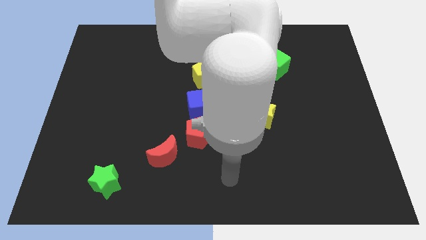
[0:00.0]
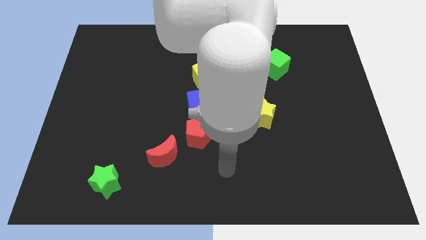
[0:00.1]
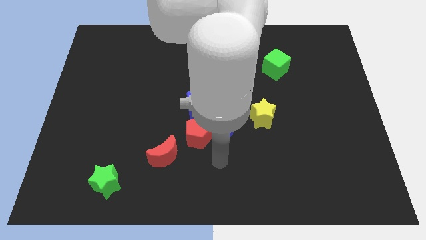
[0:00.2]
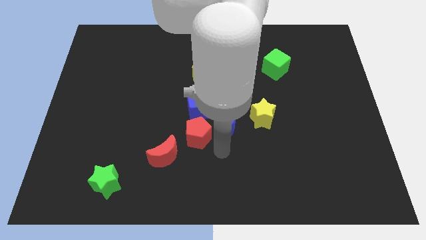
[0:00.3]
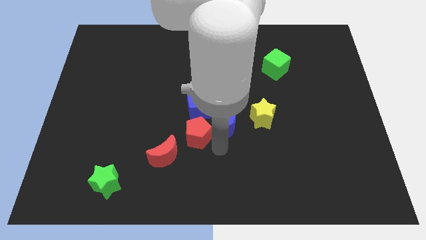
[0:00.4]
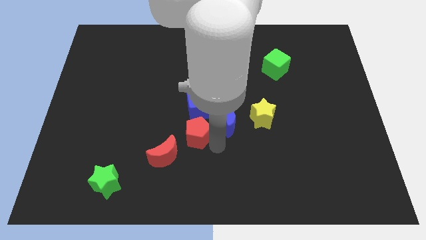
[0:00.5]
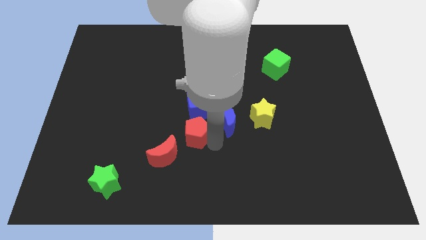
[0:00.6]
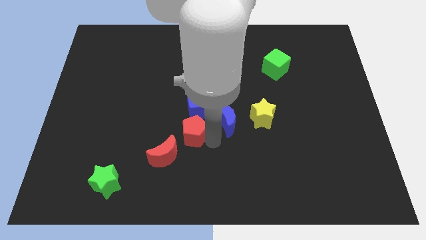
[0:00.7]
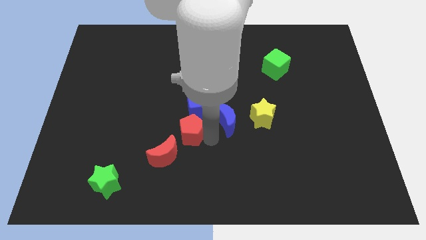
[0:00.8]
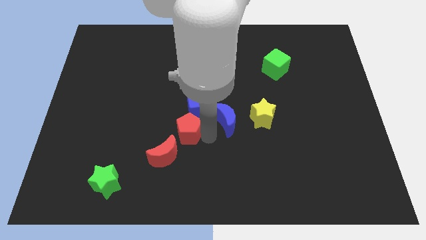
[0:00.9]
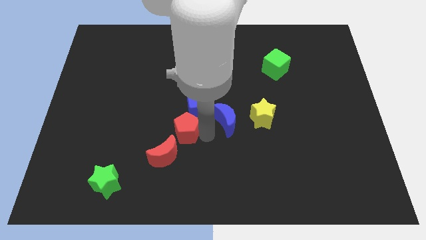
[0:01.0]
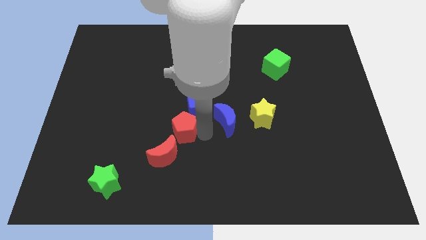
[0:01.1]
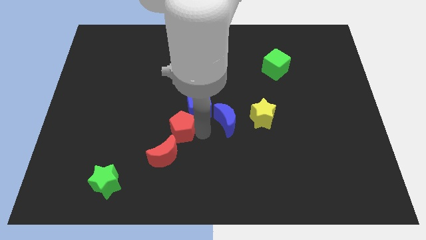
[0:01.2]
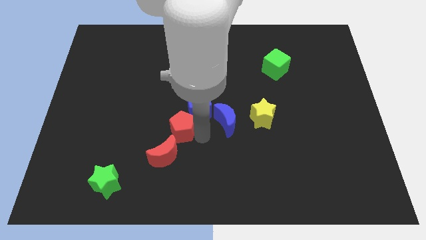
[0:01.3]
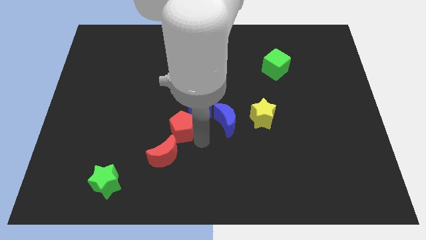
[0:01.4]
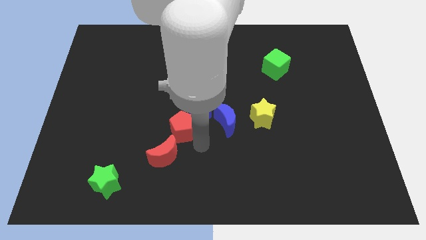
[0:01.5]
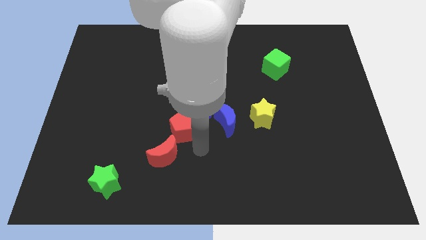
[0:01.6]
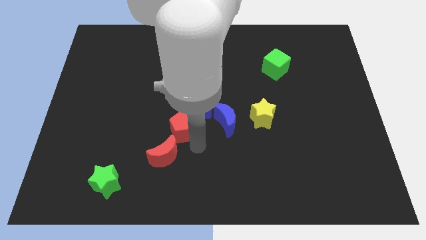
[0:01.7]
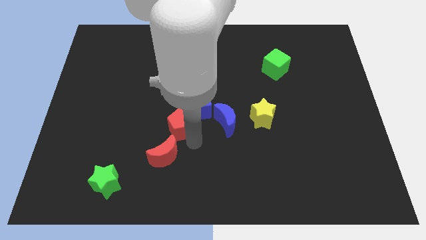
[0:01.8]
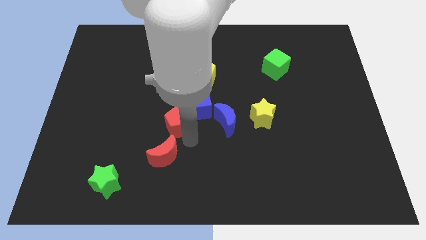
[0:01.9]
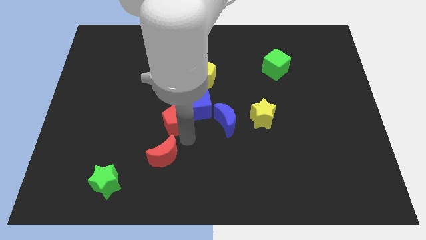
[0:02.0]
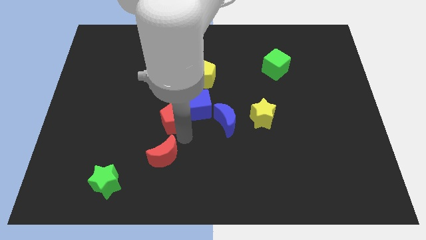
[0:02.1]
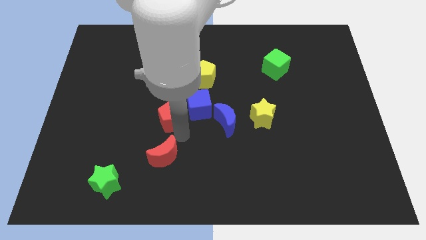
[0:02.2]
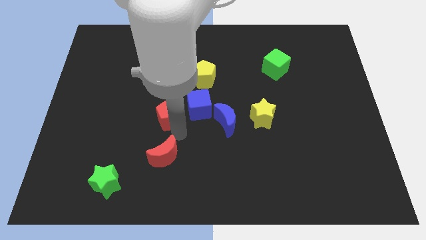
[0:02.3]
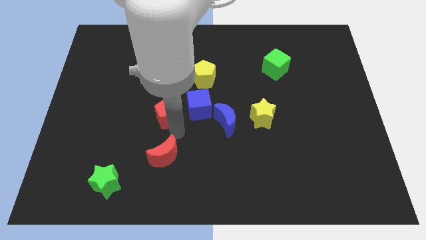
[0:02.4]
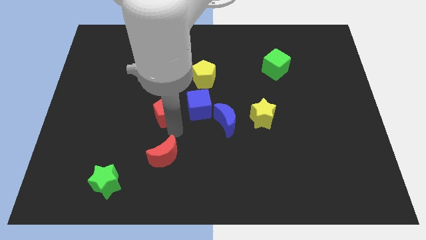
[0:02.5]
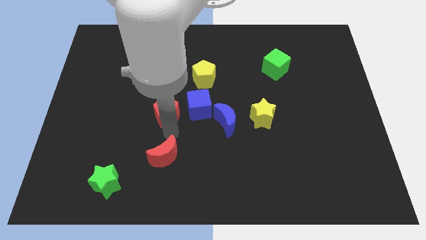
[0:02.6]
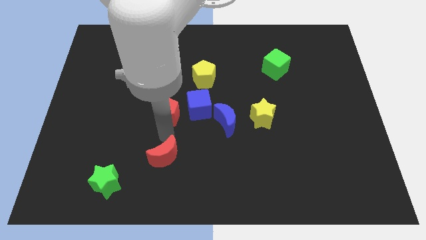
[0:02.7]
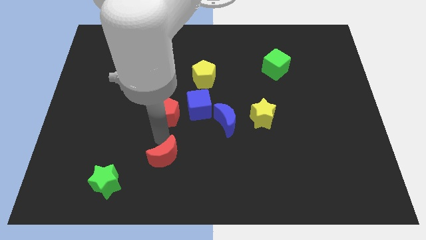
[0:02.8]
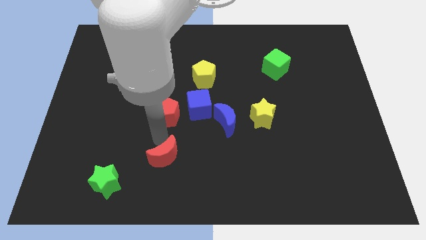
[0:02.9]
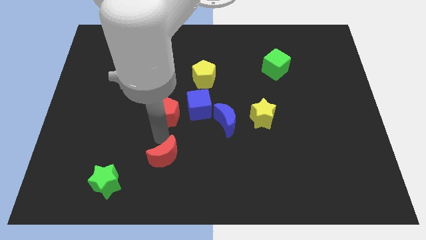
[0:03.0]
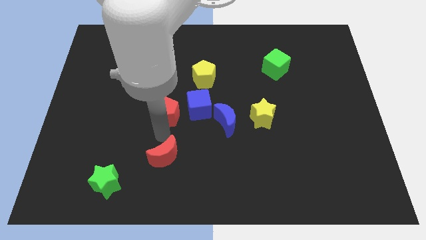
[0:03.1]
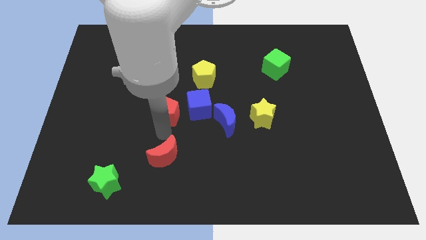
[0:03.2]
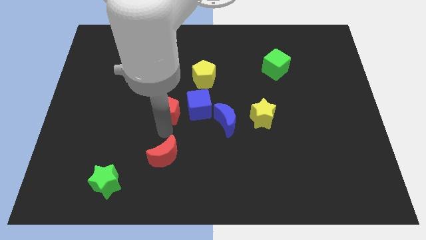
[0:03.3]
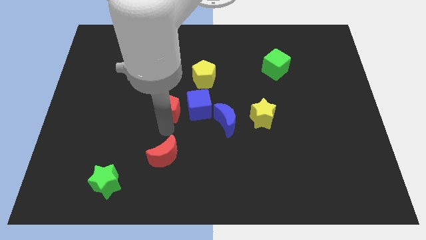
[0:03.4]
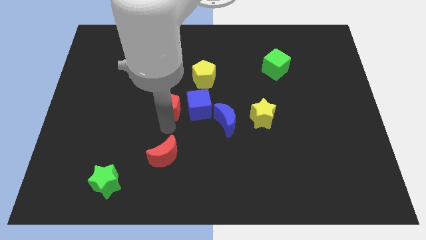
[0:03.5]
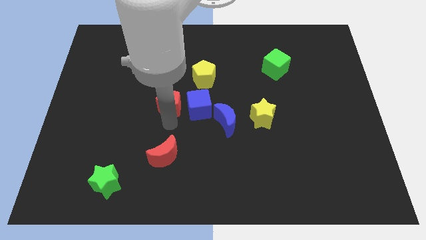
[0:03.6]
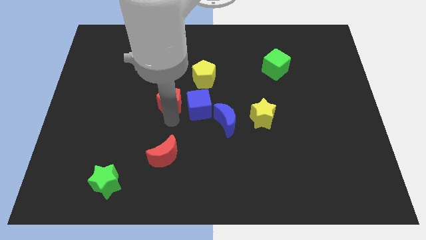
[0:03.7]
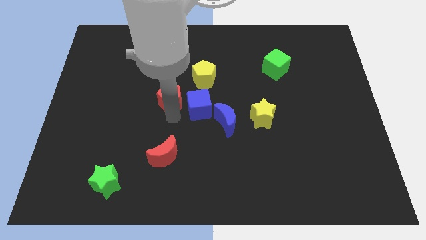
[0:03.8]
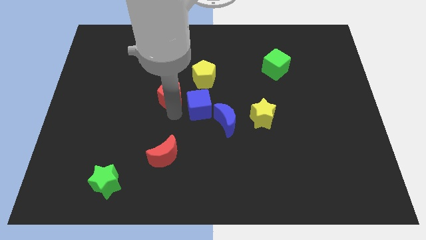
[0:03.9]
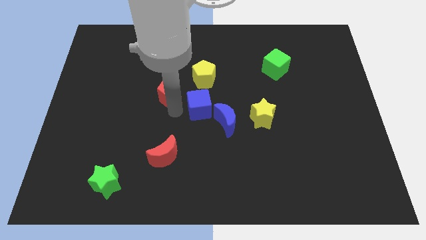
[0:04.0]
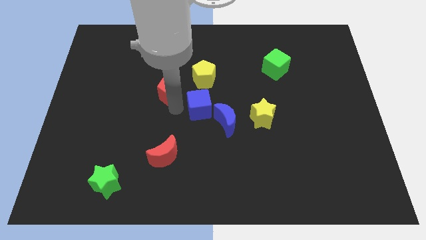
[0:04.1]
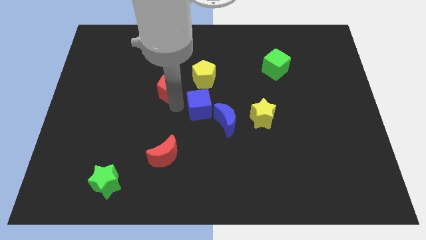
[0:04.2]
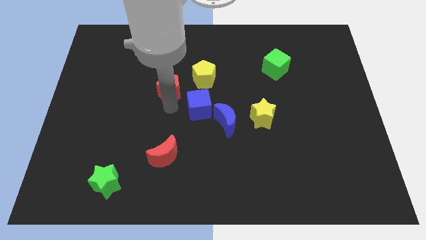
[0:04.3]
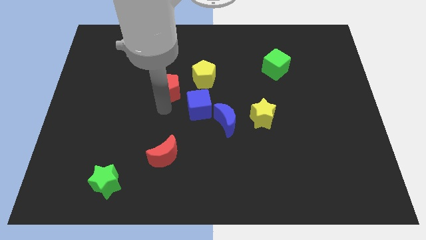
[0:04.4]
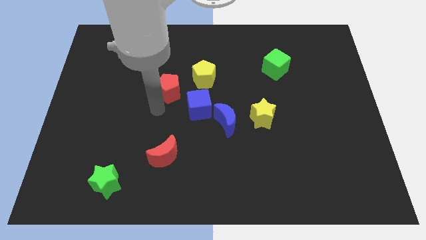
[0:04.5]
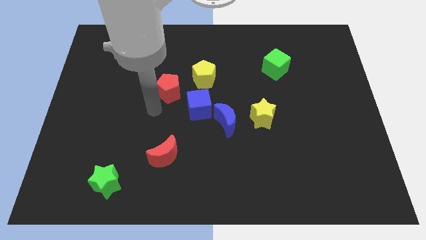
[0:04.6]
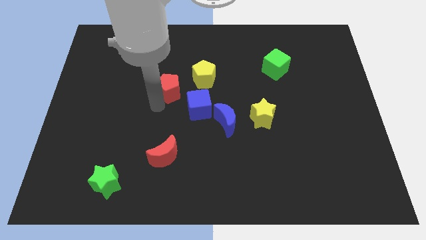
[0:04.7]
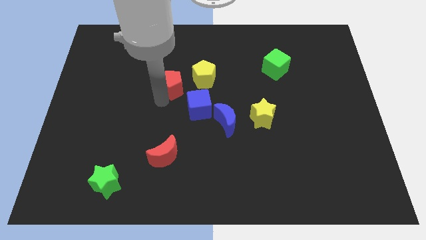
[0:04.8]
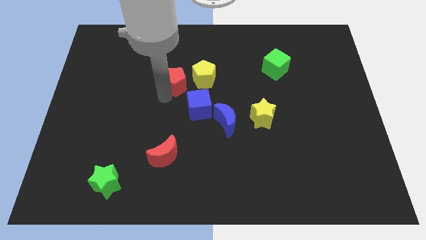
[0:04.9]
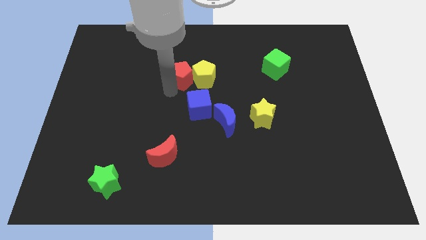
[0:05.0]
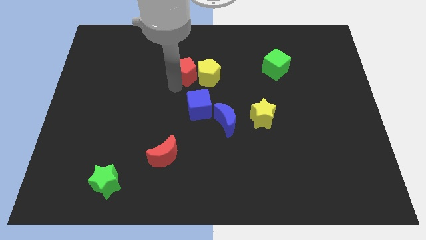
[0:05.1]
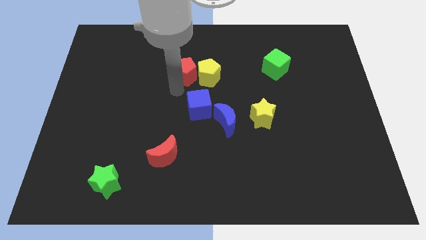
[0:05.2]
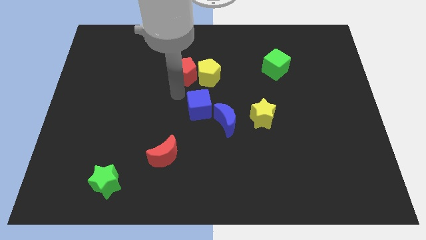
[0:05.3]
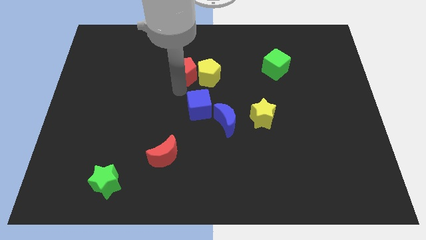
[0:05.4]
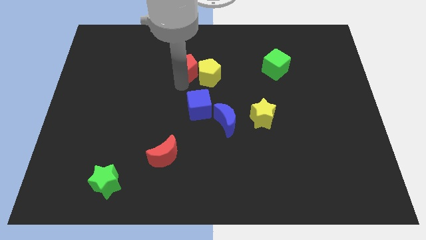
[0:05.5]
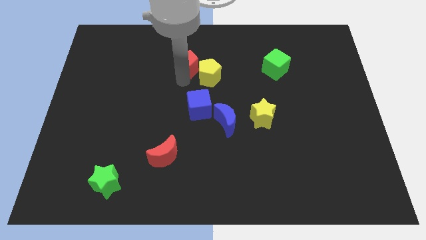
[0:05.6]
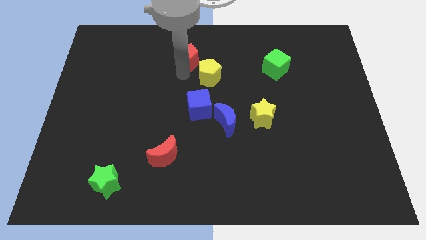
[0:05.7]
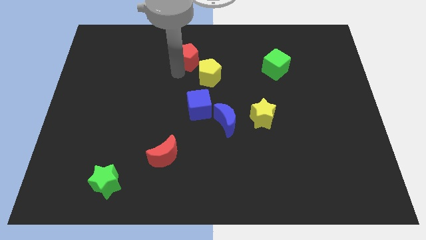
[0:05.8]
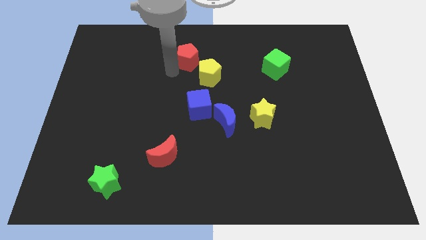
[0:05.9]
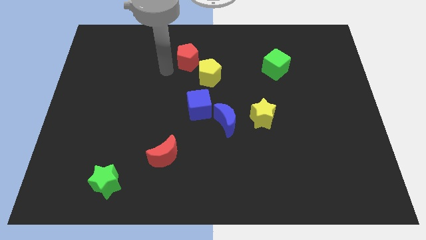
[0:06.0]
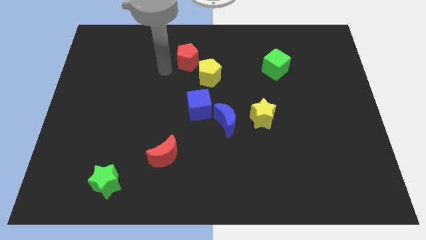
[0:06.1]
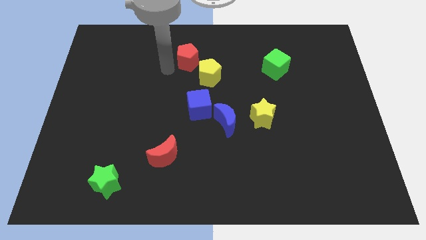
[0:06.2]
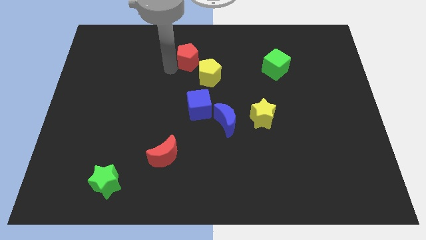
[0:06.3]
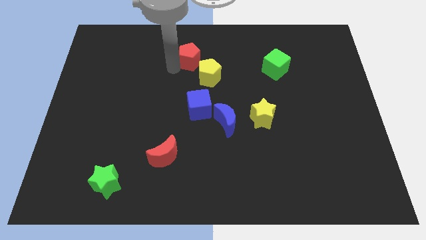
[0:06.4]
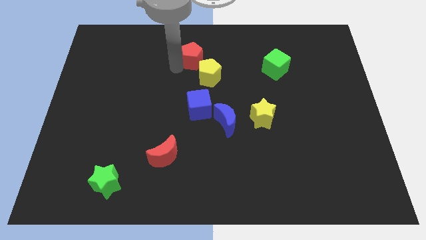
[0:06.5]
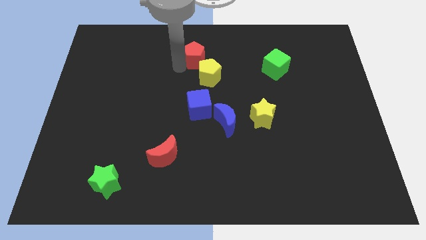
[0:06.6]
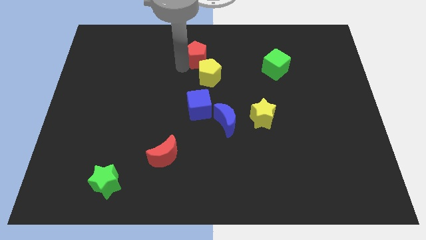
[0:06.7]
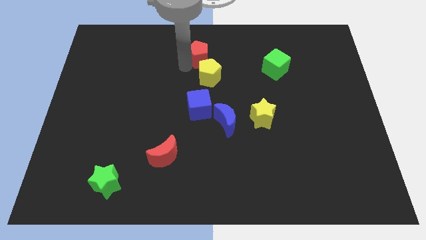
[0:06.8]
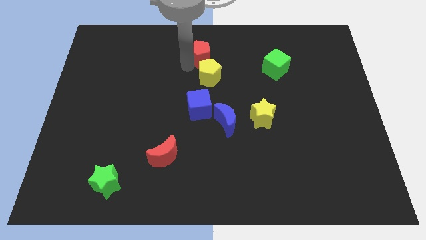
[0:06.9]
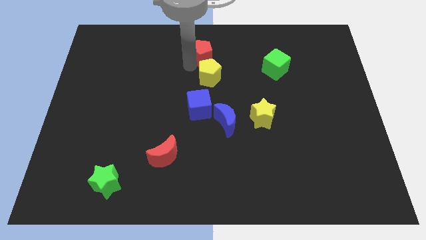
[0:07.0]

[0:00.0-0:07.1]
put the red pentagon to the top side
